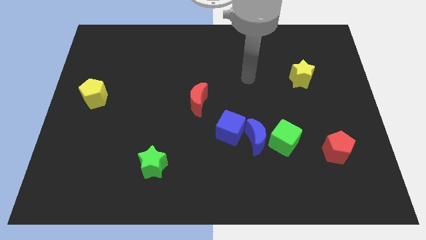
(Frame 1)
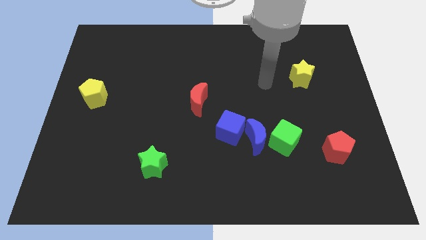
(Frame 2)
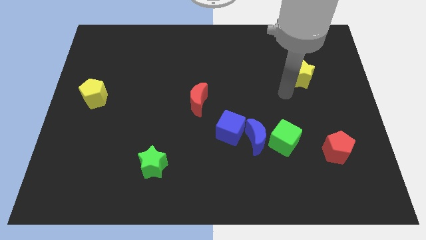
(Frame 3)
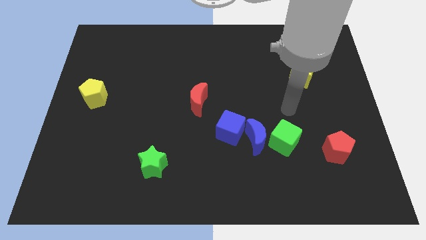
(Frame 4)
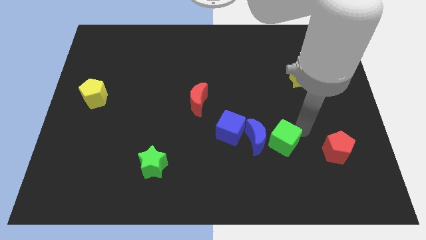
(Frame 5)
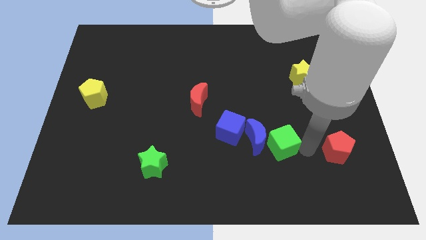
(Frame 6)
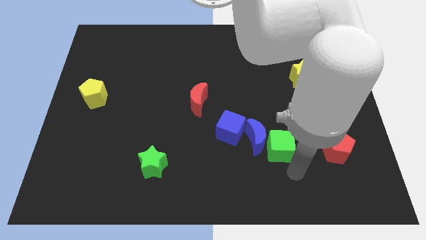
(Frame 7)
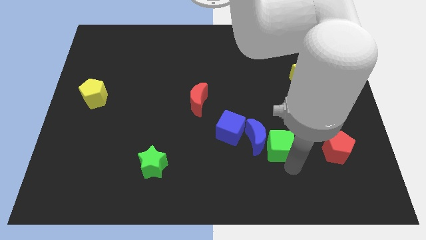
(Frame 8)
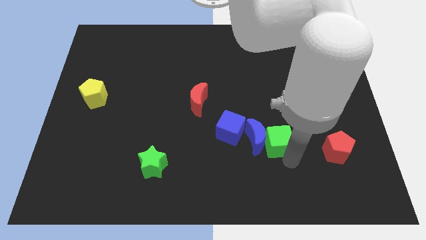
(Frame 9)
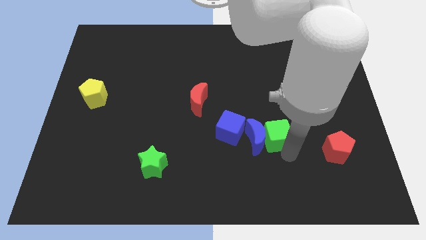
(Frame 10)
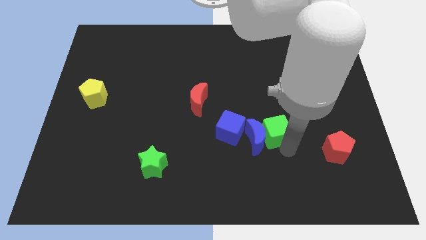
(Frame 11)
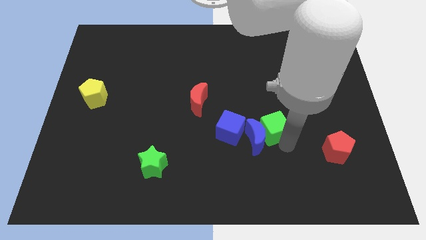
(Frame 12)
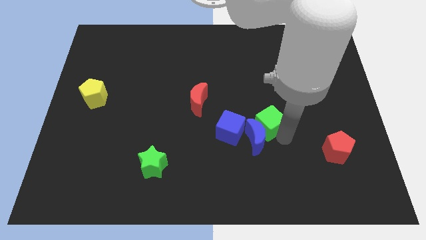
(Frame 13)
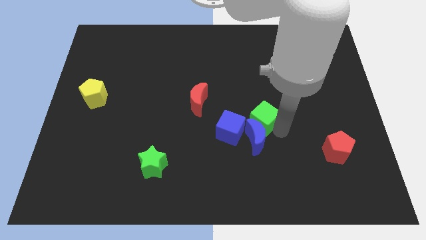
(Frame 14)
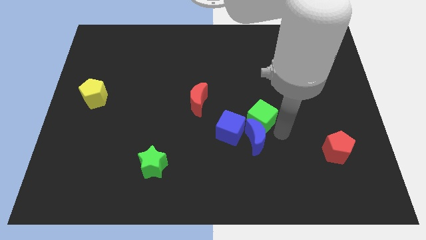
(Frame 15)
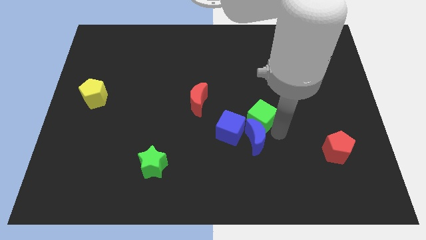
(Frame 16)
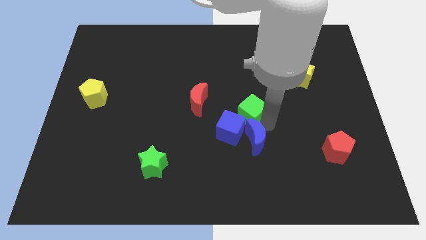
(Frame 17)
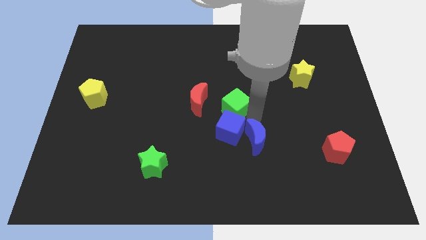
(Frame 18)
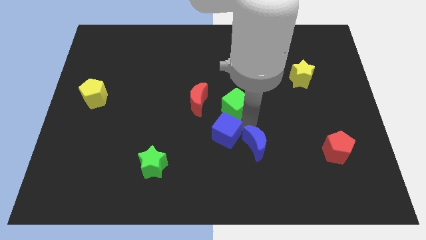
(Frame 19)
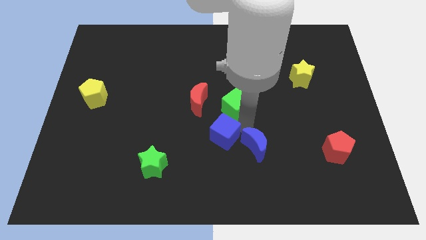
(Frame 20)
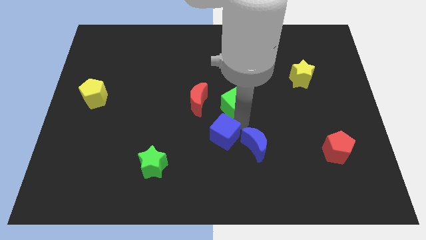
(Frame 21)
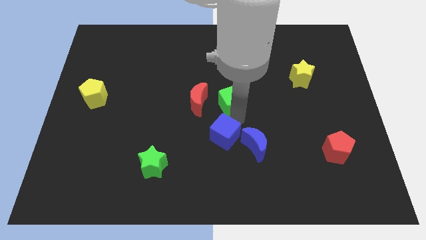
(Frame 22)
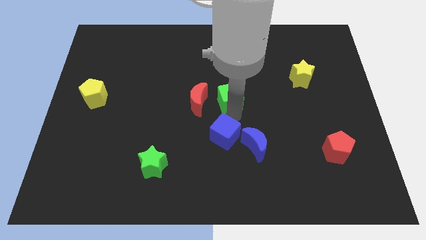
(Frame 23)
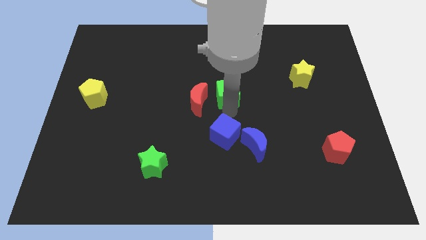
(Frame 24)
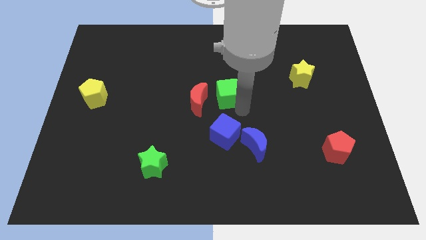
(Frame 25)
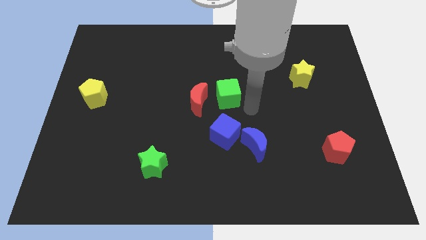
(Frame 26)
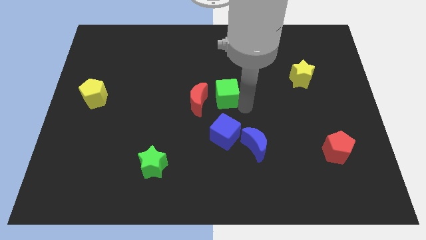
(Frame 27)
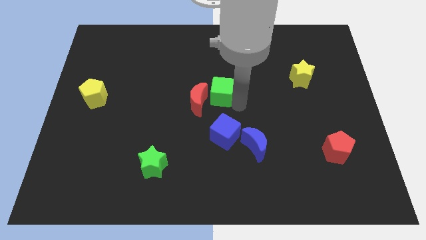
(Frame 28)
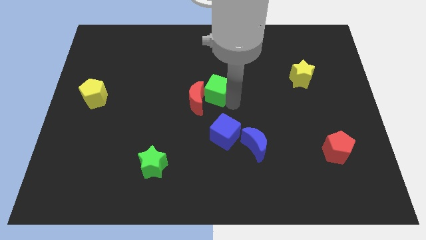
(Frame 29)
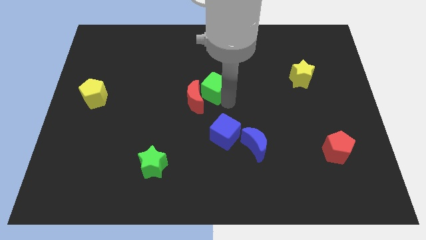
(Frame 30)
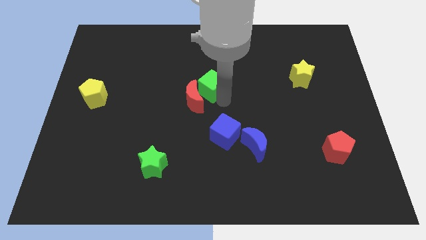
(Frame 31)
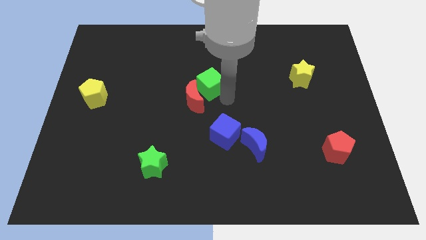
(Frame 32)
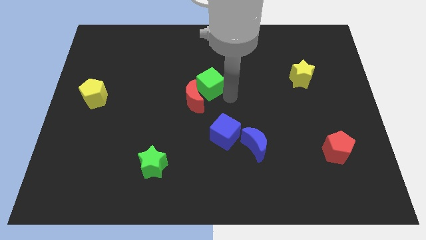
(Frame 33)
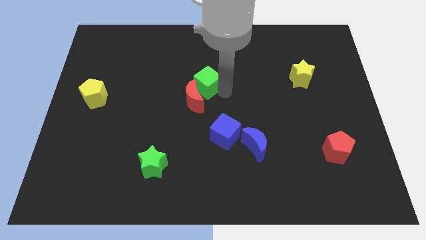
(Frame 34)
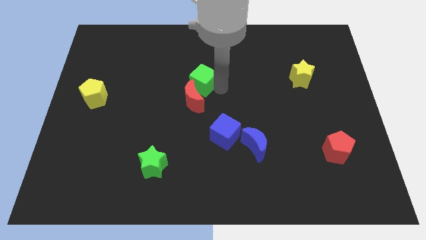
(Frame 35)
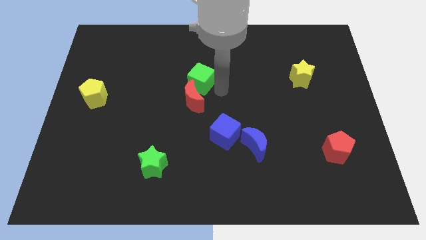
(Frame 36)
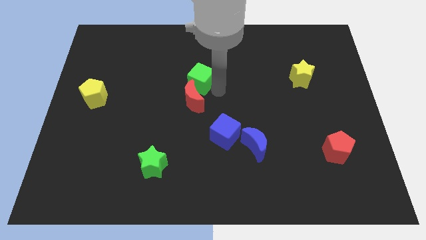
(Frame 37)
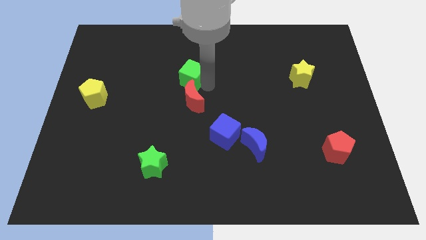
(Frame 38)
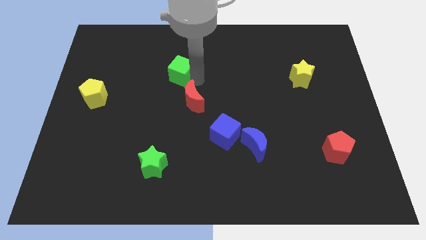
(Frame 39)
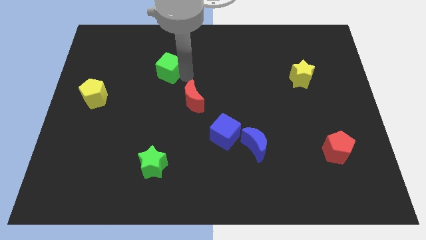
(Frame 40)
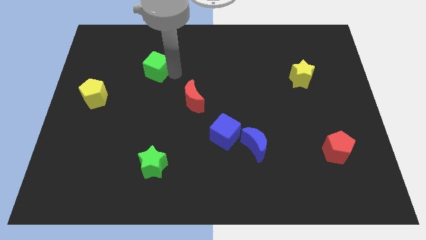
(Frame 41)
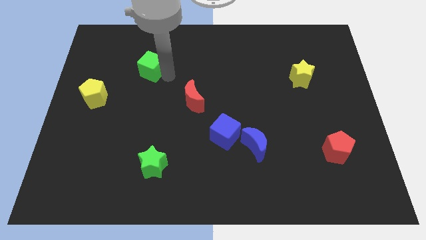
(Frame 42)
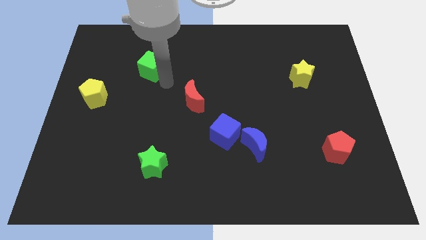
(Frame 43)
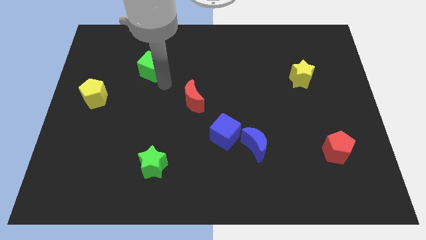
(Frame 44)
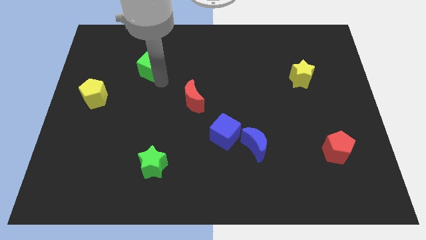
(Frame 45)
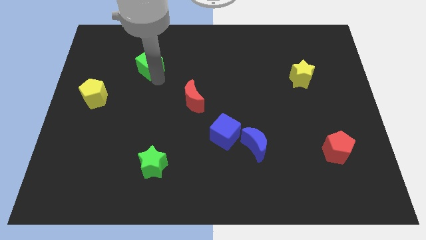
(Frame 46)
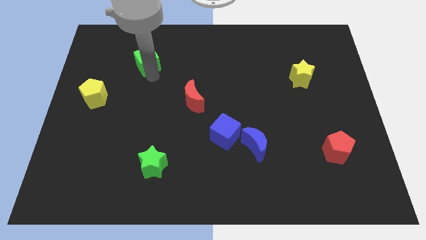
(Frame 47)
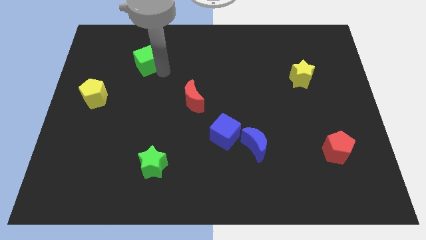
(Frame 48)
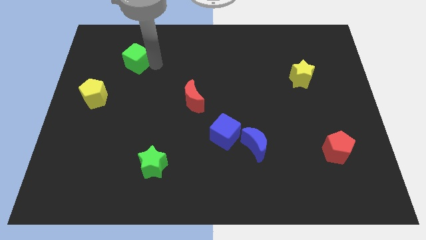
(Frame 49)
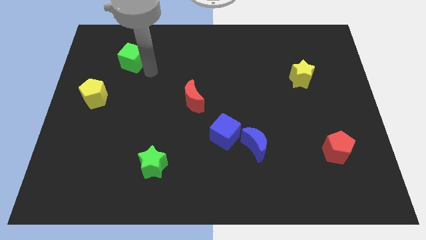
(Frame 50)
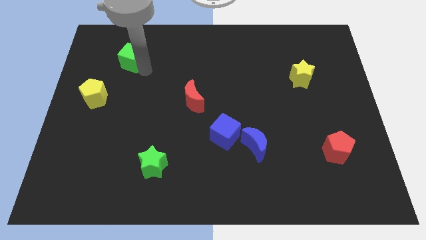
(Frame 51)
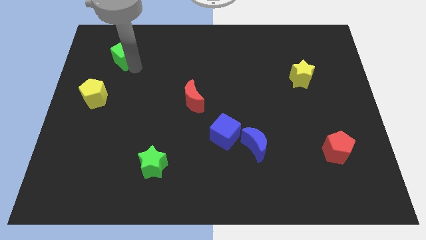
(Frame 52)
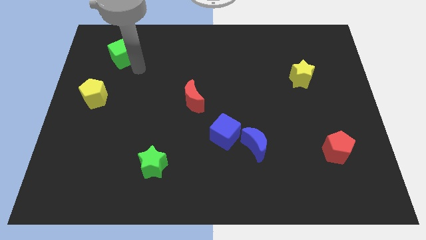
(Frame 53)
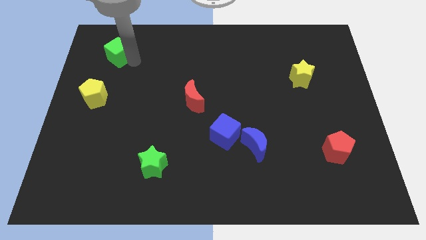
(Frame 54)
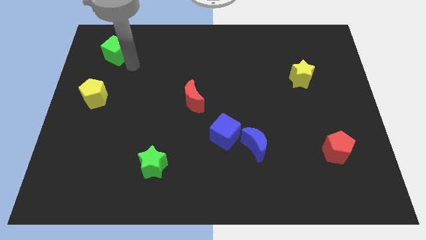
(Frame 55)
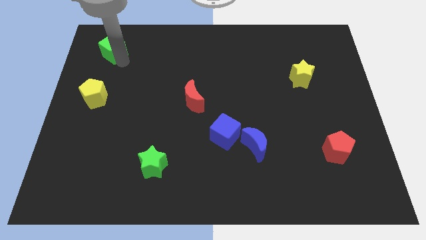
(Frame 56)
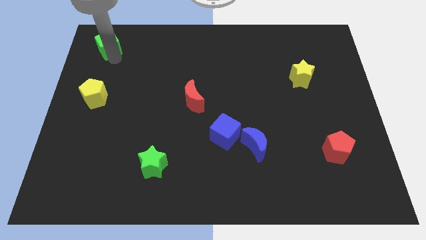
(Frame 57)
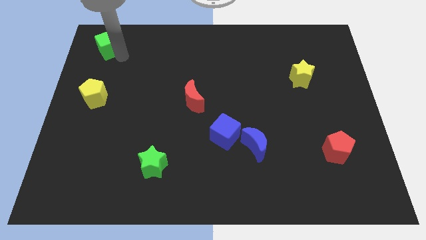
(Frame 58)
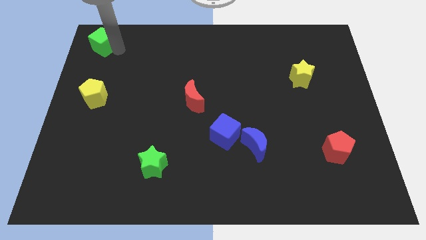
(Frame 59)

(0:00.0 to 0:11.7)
slide the green cube to the upper left corner

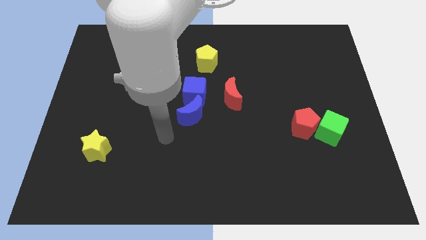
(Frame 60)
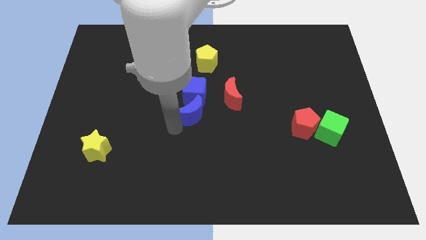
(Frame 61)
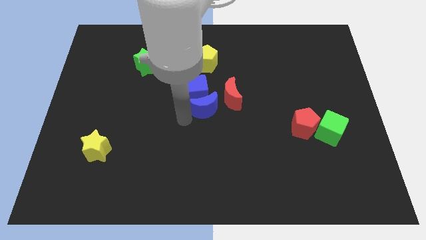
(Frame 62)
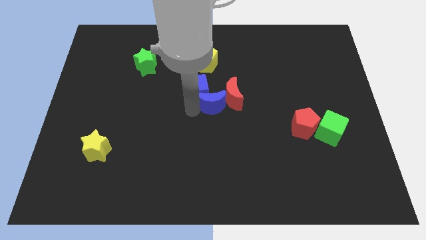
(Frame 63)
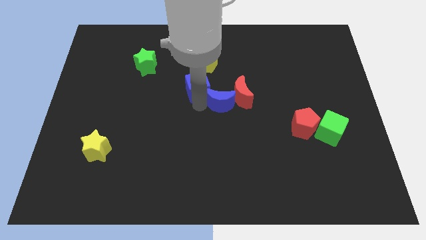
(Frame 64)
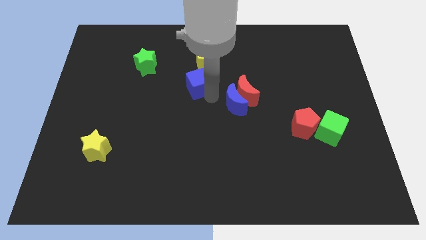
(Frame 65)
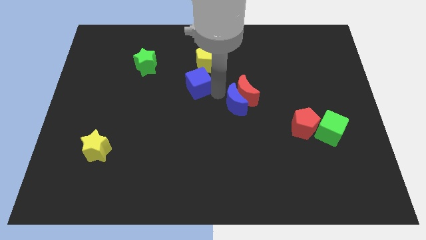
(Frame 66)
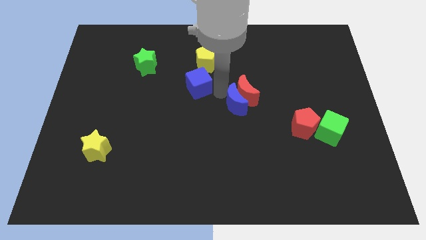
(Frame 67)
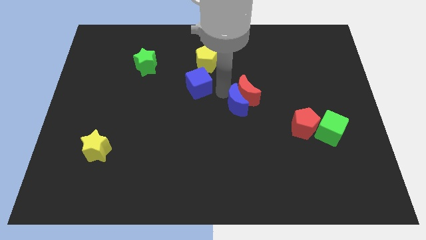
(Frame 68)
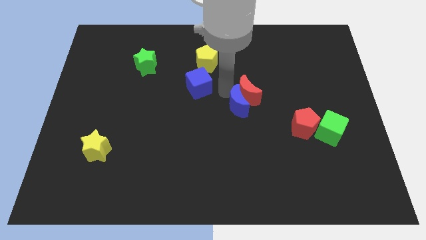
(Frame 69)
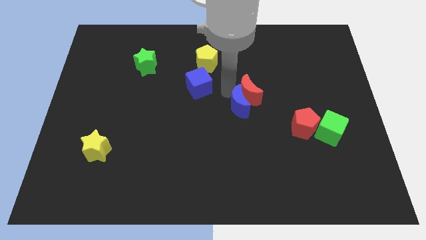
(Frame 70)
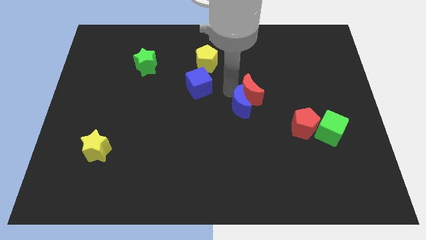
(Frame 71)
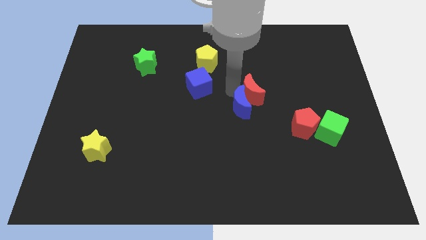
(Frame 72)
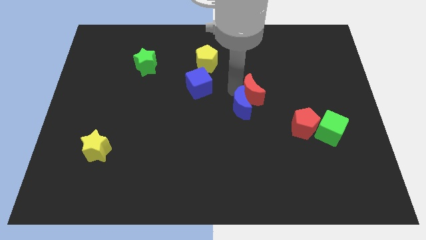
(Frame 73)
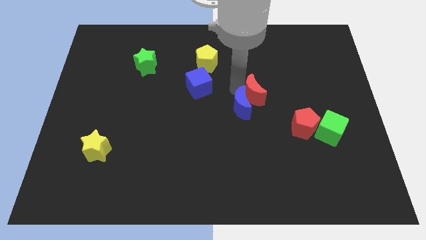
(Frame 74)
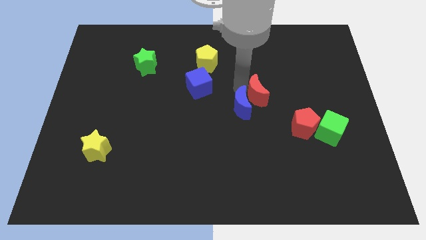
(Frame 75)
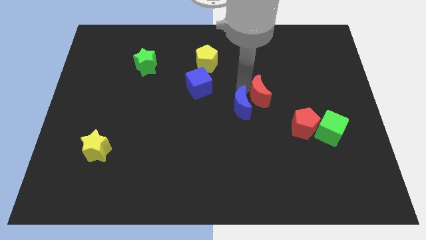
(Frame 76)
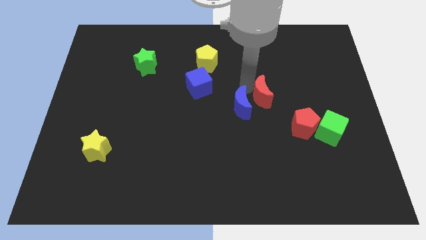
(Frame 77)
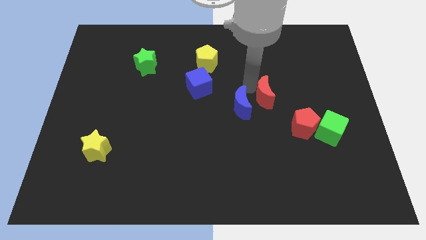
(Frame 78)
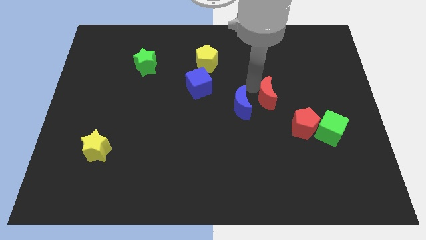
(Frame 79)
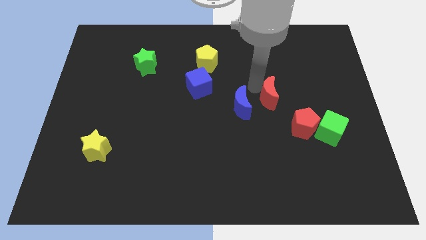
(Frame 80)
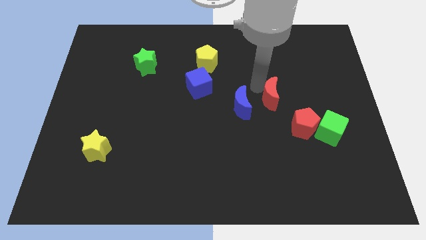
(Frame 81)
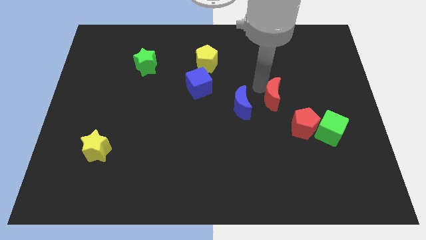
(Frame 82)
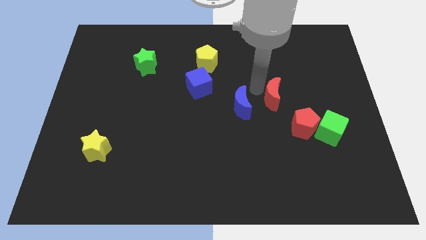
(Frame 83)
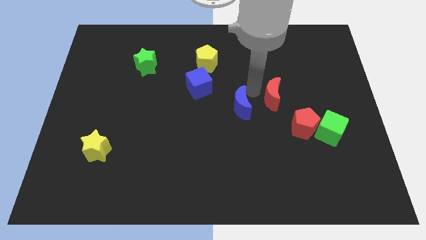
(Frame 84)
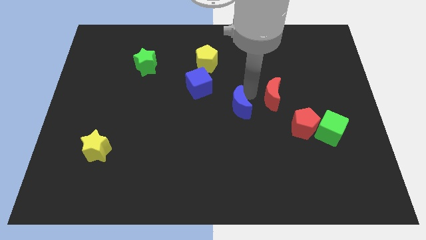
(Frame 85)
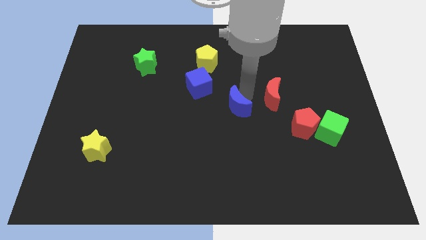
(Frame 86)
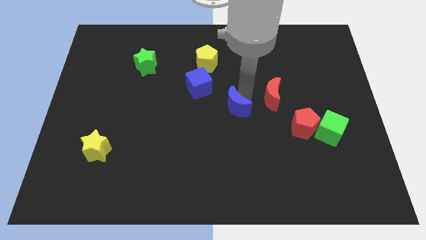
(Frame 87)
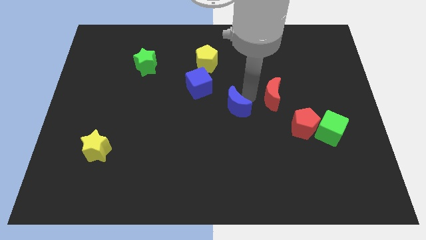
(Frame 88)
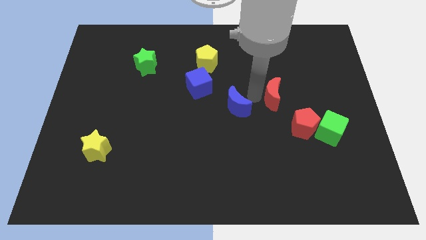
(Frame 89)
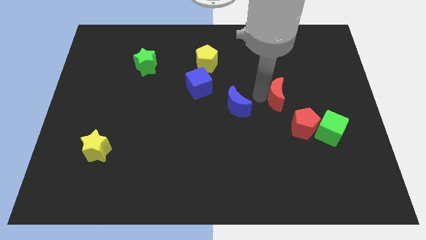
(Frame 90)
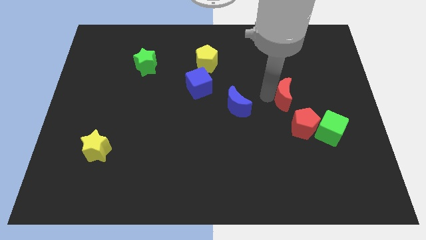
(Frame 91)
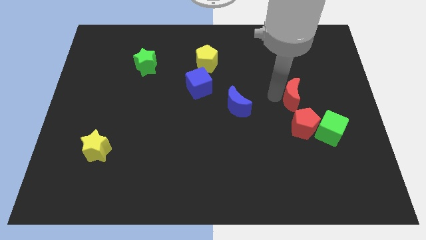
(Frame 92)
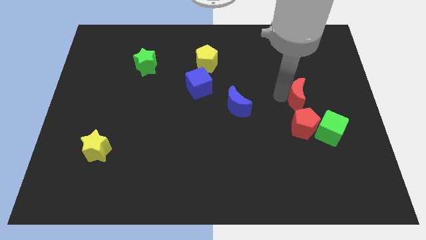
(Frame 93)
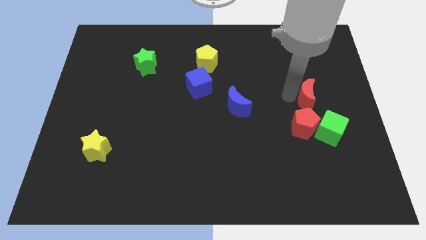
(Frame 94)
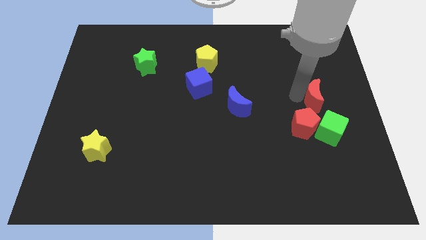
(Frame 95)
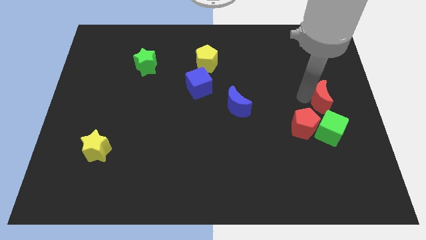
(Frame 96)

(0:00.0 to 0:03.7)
slide the red moon to the right side of the board
